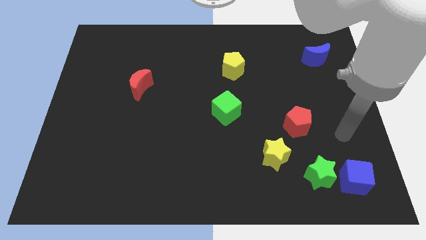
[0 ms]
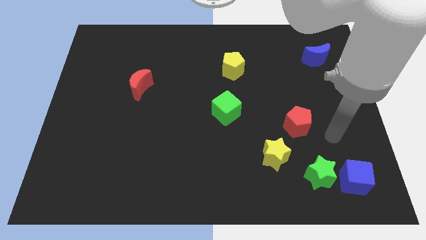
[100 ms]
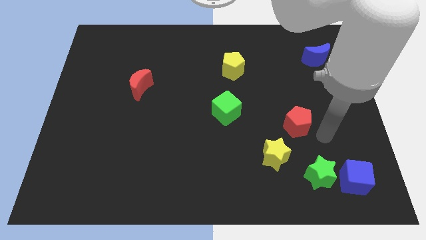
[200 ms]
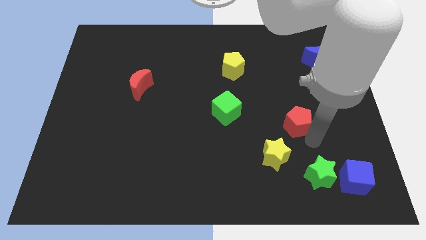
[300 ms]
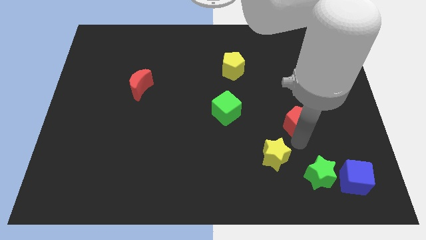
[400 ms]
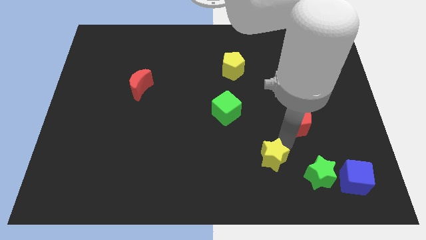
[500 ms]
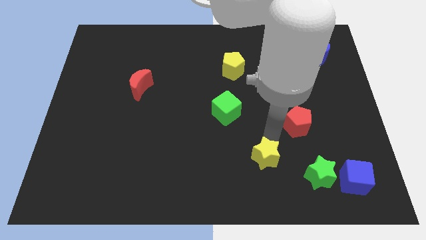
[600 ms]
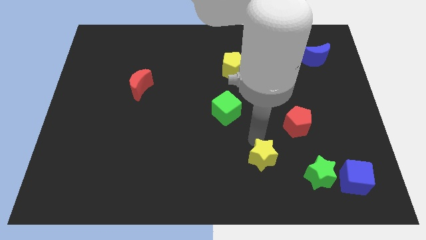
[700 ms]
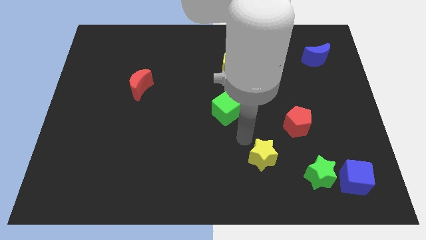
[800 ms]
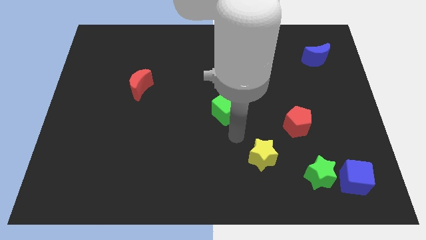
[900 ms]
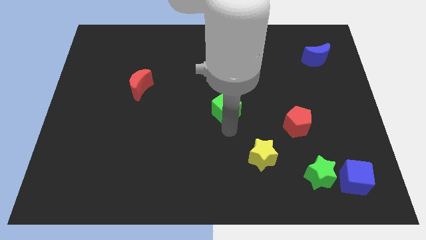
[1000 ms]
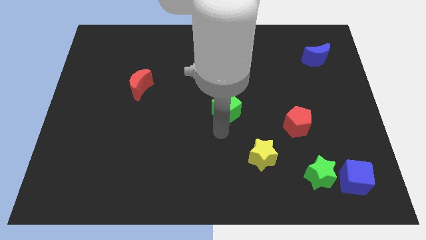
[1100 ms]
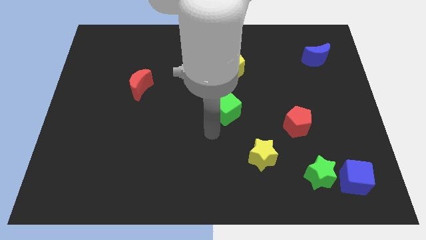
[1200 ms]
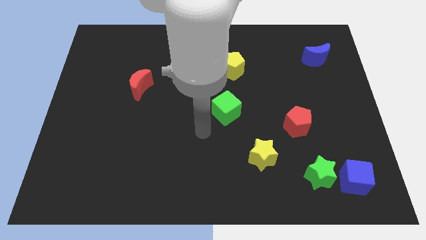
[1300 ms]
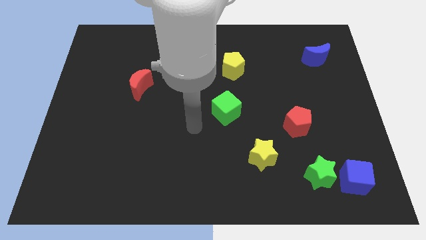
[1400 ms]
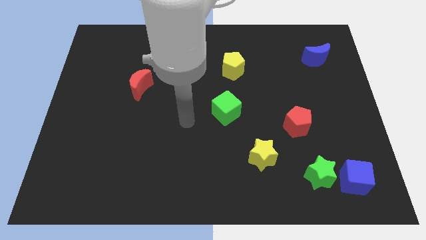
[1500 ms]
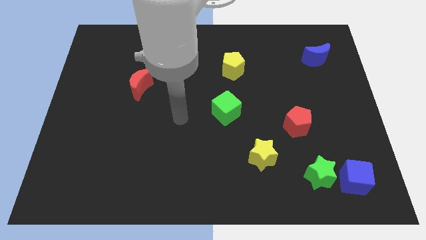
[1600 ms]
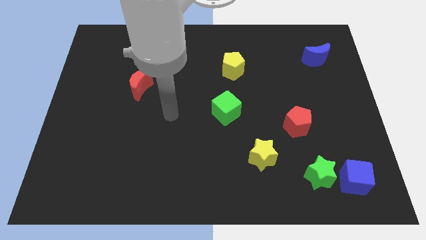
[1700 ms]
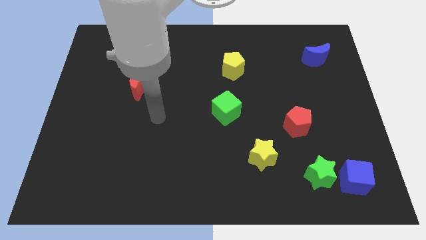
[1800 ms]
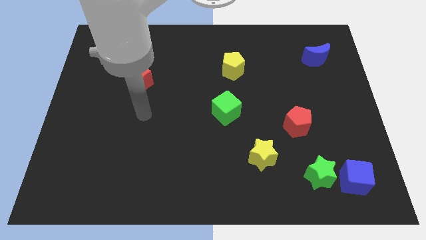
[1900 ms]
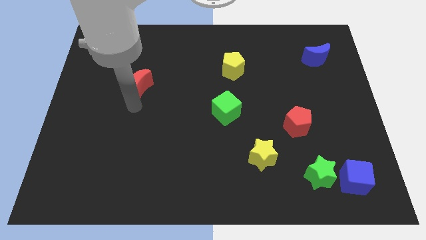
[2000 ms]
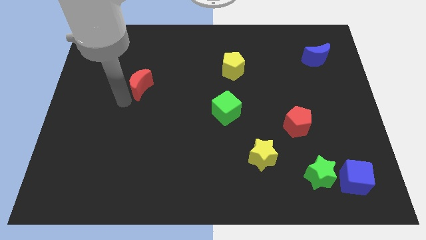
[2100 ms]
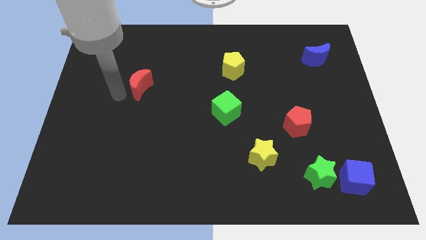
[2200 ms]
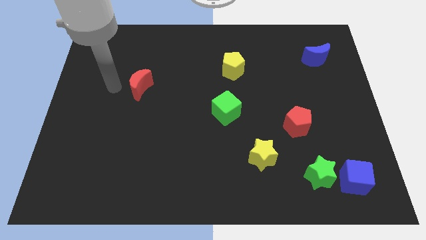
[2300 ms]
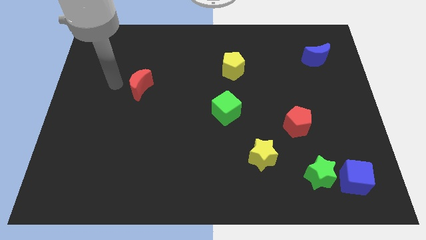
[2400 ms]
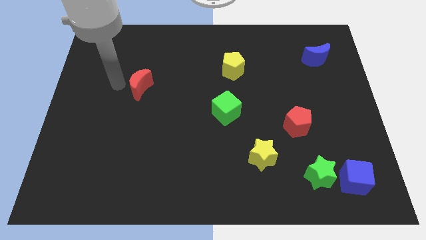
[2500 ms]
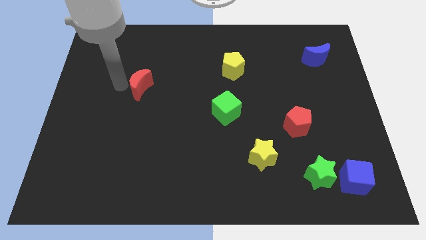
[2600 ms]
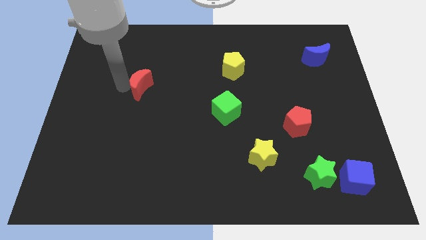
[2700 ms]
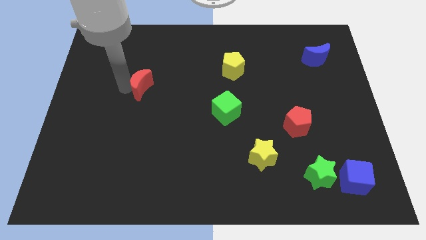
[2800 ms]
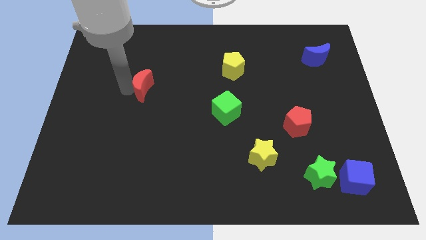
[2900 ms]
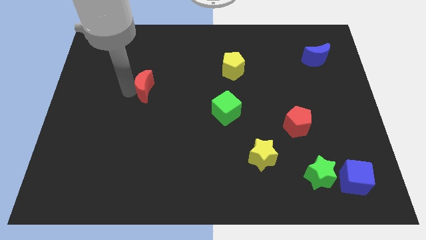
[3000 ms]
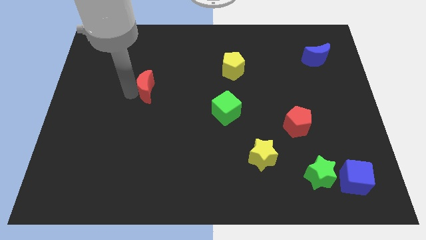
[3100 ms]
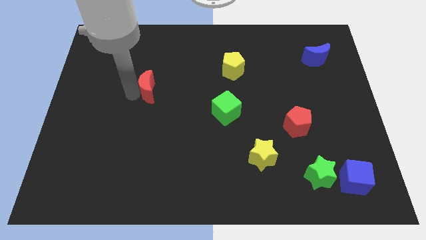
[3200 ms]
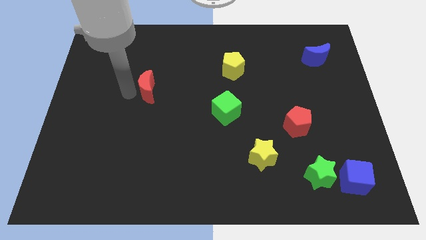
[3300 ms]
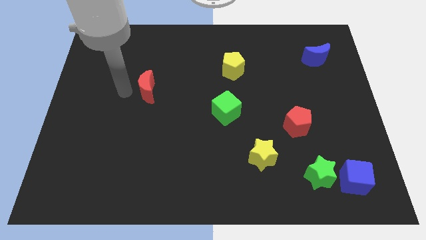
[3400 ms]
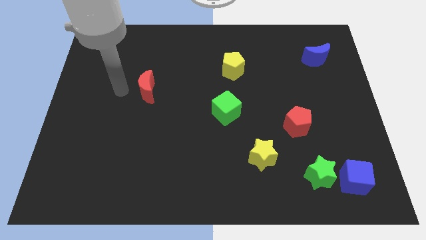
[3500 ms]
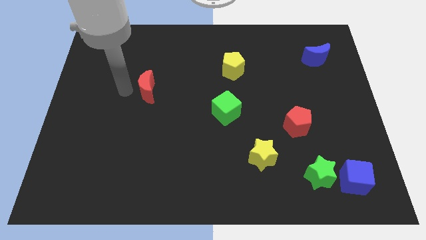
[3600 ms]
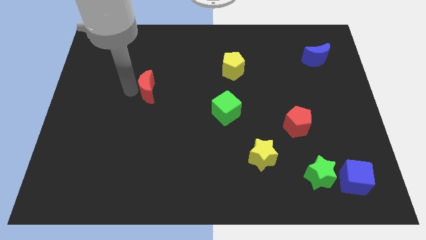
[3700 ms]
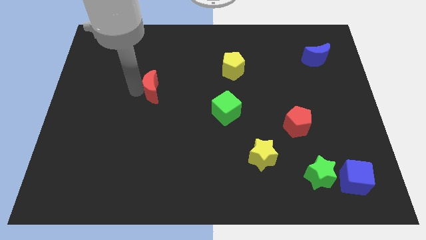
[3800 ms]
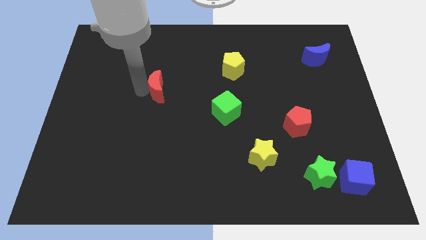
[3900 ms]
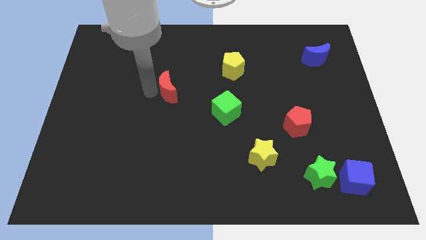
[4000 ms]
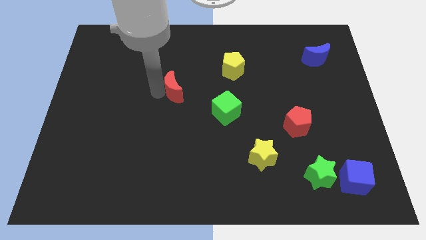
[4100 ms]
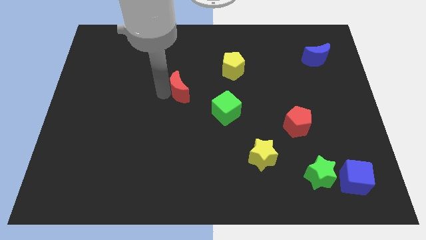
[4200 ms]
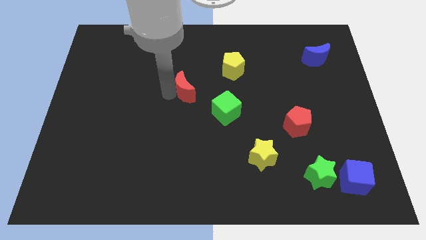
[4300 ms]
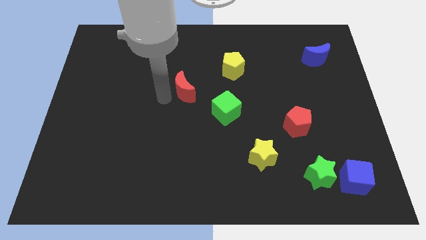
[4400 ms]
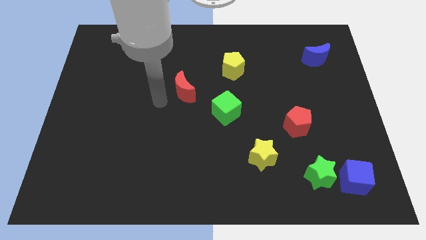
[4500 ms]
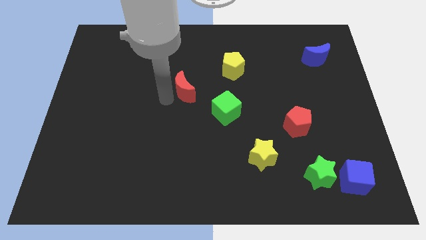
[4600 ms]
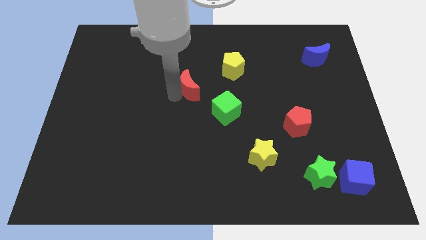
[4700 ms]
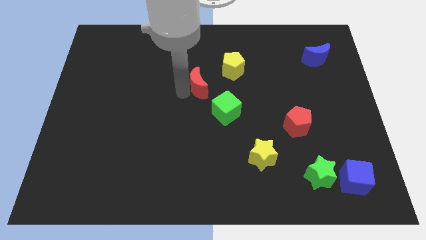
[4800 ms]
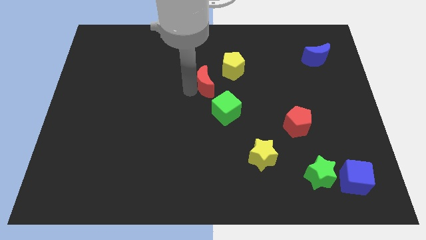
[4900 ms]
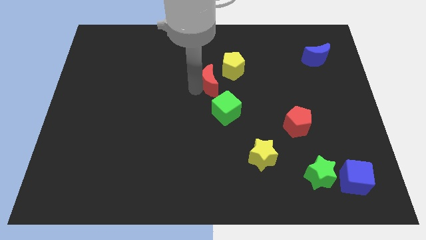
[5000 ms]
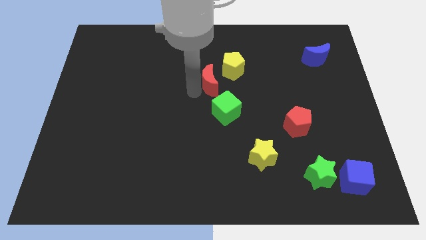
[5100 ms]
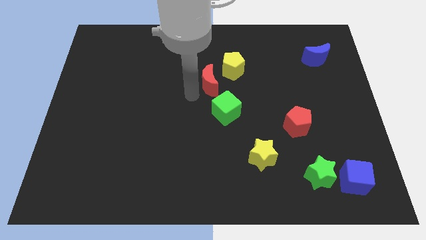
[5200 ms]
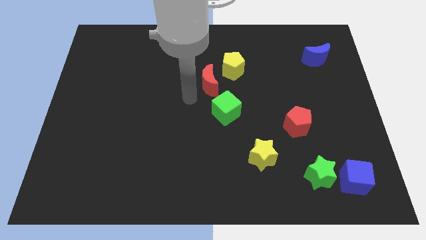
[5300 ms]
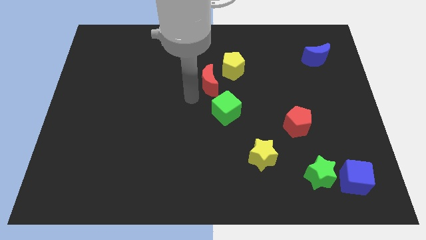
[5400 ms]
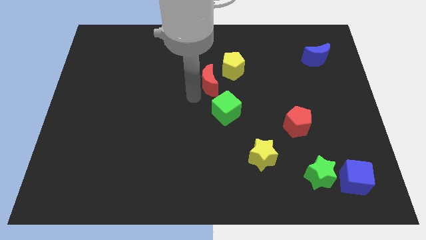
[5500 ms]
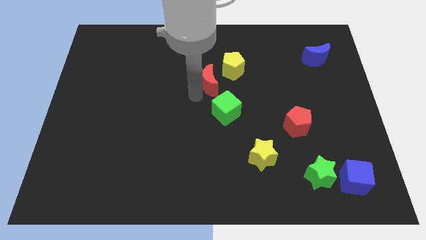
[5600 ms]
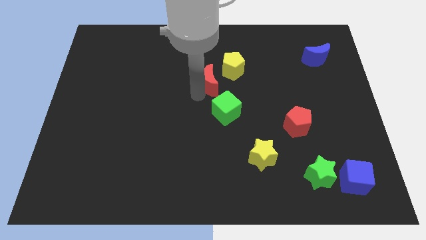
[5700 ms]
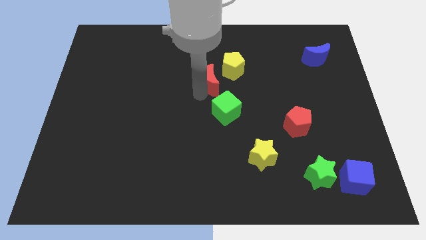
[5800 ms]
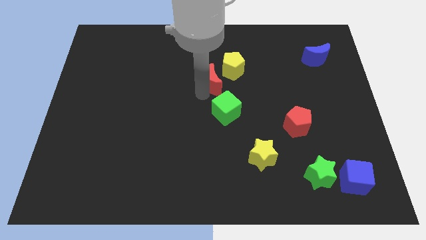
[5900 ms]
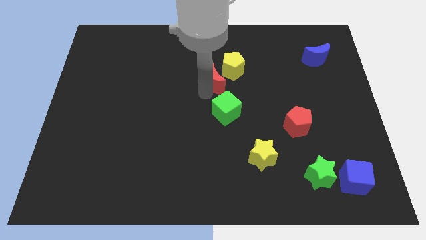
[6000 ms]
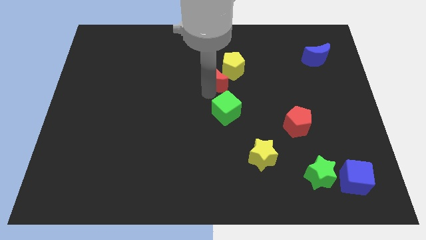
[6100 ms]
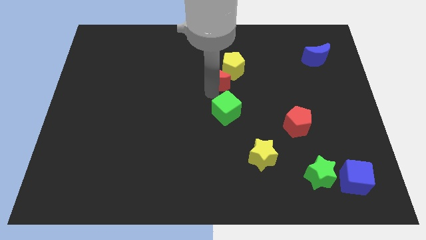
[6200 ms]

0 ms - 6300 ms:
move the red moon close to the yellow pentagon

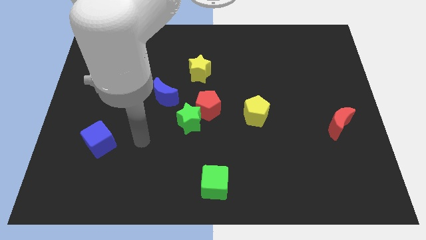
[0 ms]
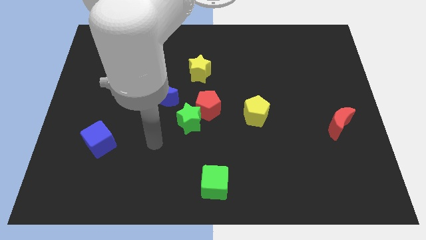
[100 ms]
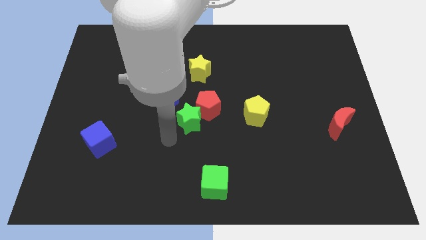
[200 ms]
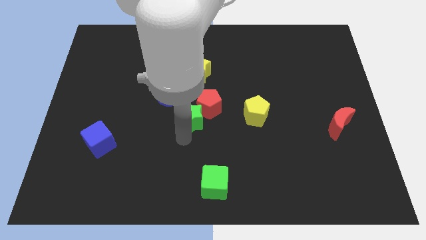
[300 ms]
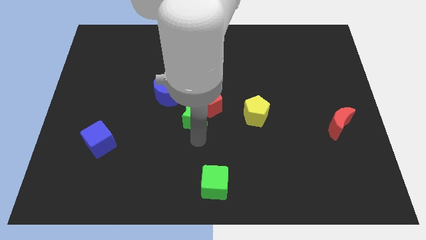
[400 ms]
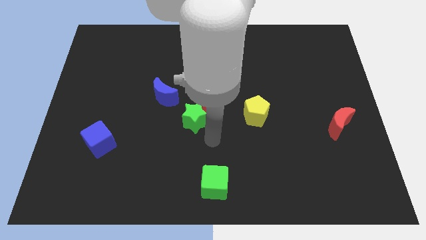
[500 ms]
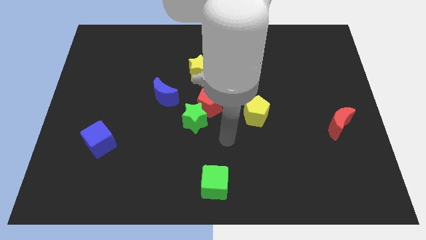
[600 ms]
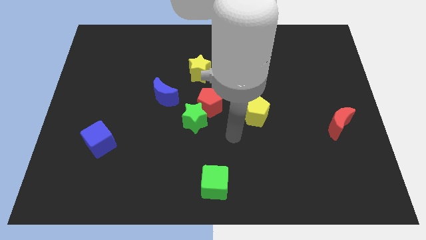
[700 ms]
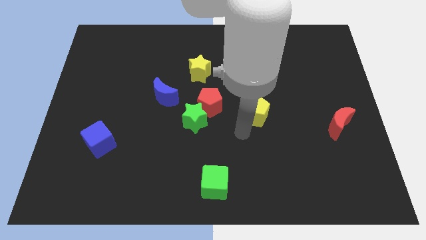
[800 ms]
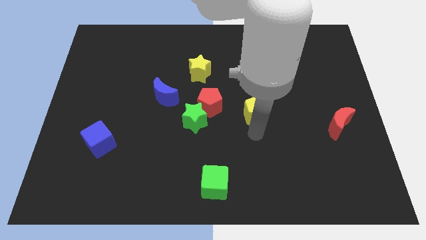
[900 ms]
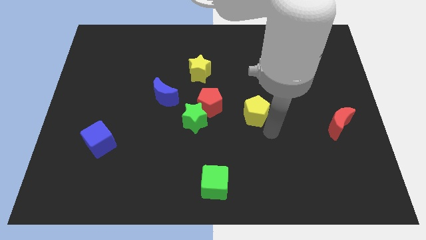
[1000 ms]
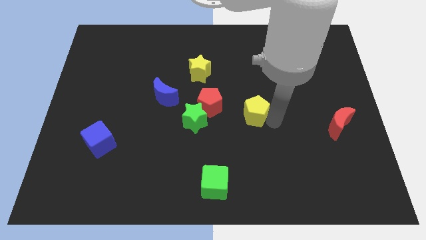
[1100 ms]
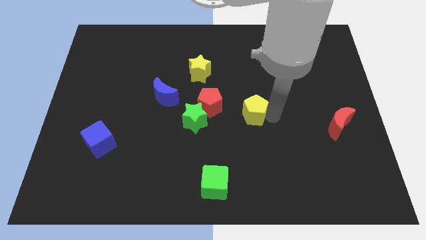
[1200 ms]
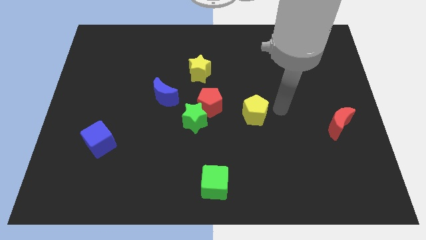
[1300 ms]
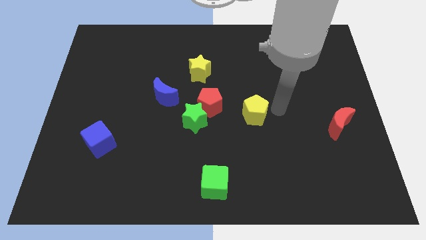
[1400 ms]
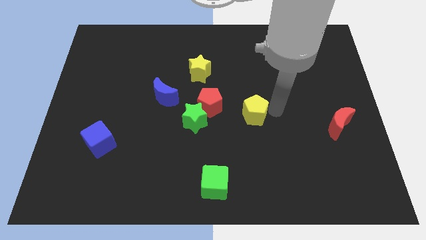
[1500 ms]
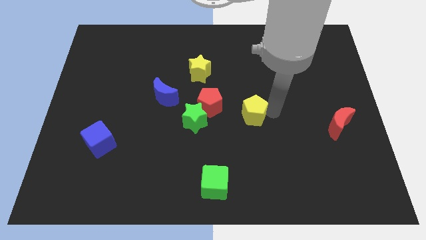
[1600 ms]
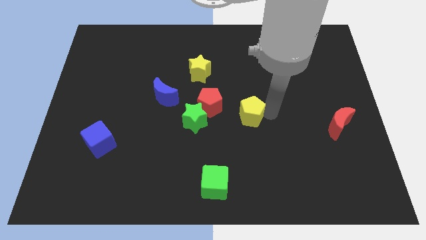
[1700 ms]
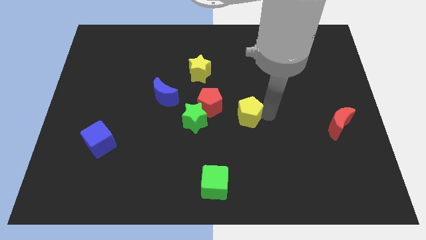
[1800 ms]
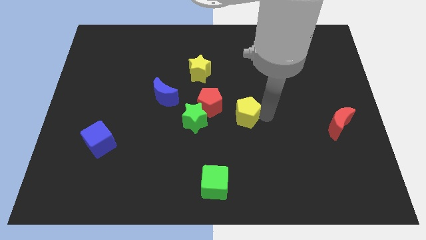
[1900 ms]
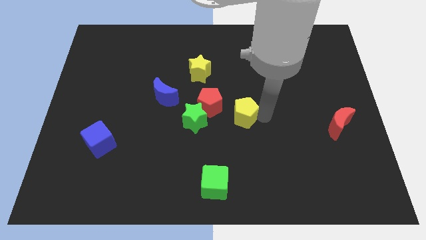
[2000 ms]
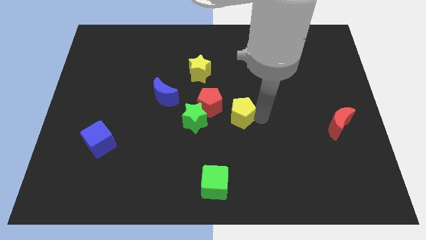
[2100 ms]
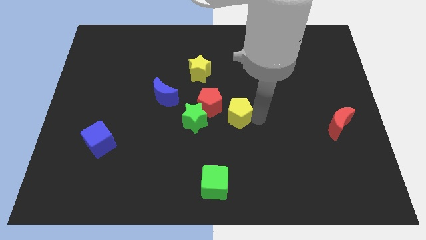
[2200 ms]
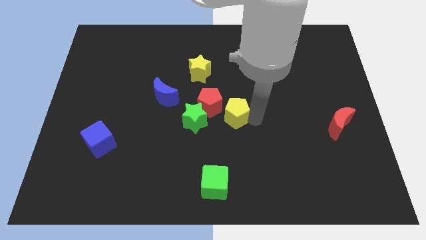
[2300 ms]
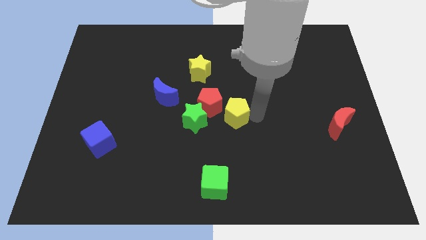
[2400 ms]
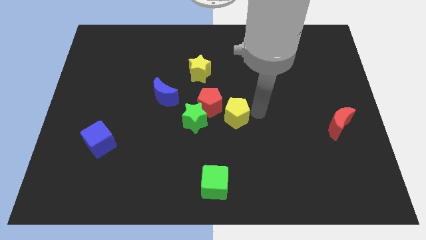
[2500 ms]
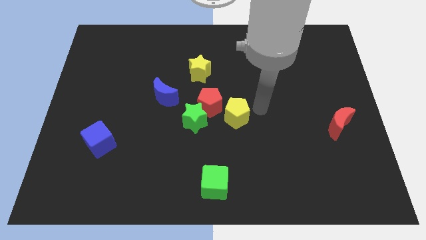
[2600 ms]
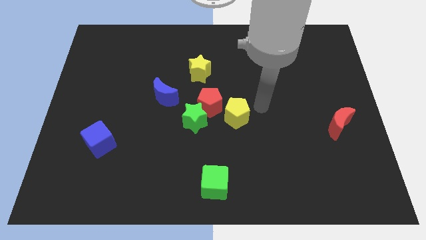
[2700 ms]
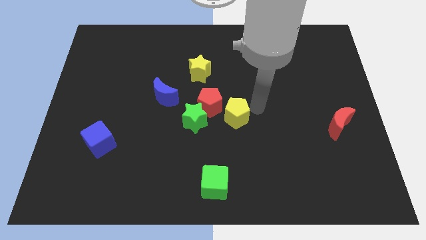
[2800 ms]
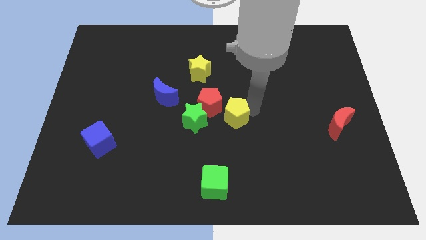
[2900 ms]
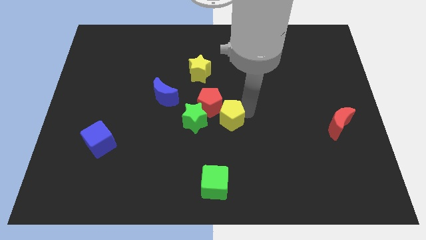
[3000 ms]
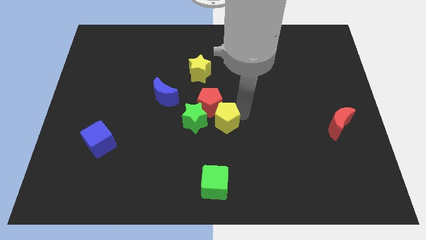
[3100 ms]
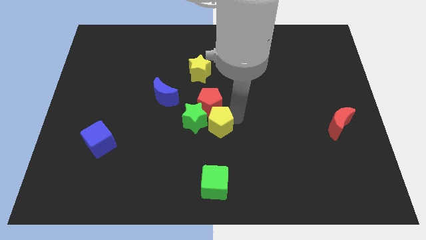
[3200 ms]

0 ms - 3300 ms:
push the yellow pentagon to the green star
